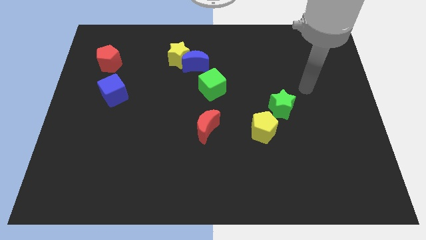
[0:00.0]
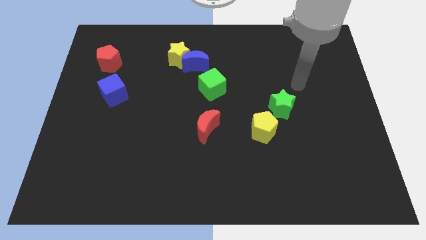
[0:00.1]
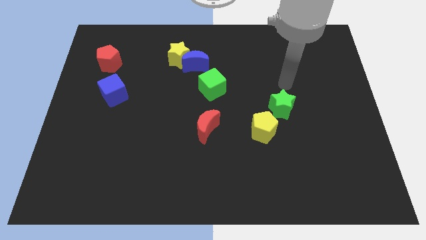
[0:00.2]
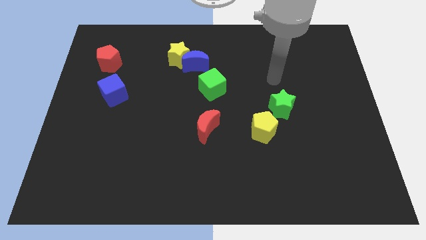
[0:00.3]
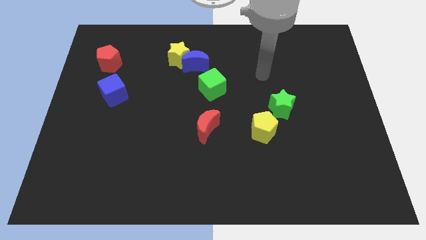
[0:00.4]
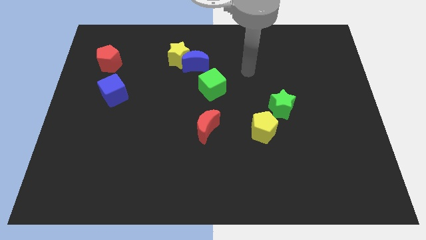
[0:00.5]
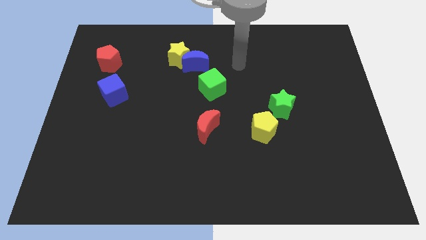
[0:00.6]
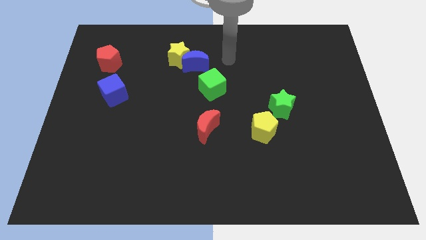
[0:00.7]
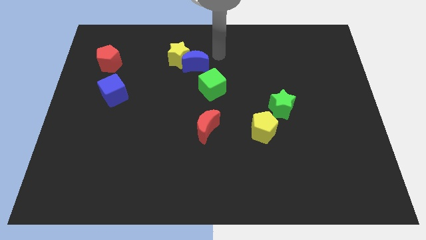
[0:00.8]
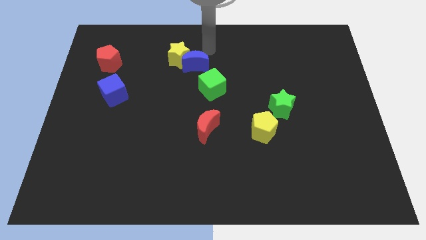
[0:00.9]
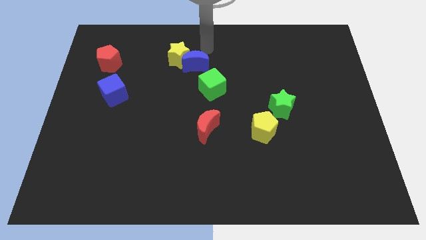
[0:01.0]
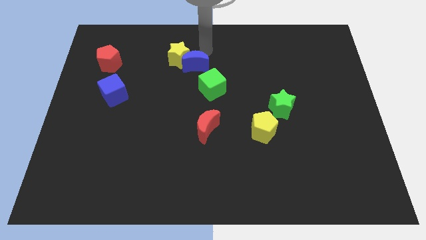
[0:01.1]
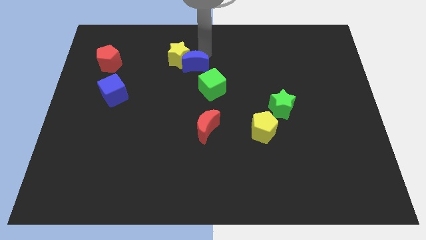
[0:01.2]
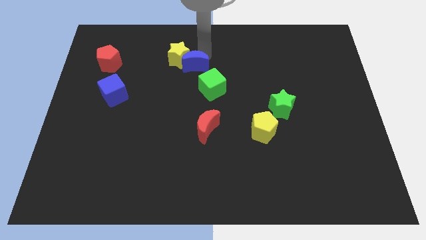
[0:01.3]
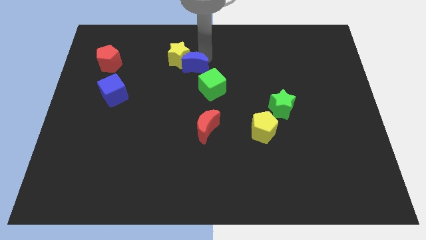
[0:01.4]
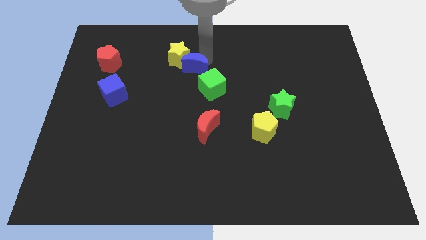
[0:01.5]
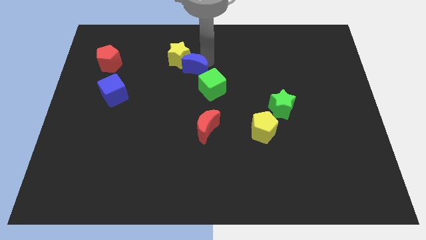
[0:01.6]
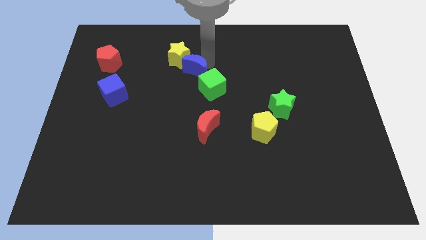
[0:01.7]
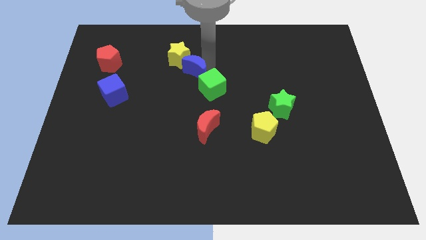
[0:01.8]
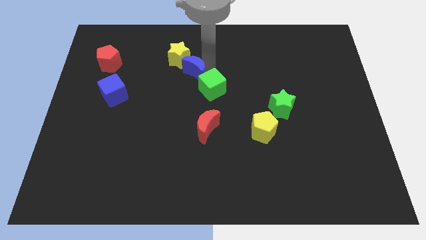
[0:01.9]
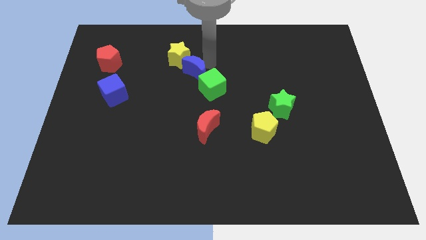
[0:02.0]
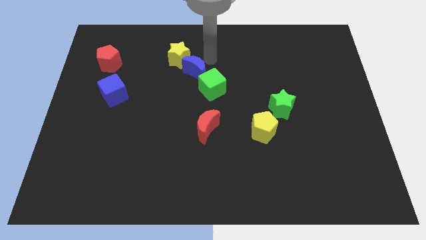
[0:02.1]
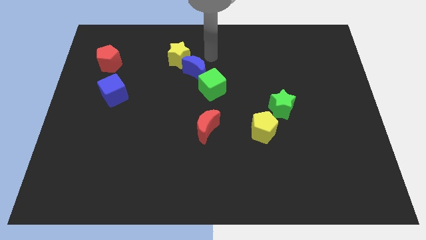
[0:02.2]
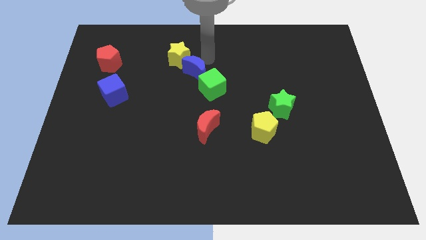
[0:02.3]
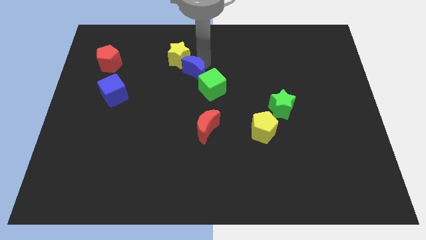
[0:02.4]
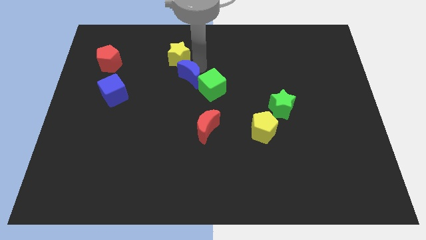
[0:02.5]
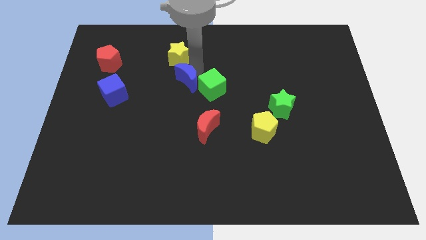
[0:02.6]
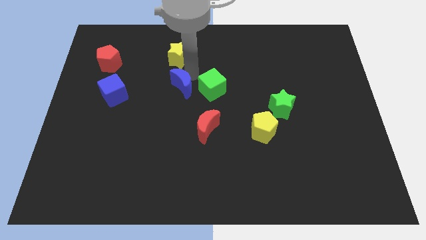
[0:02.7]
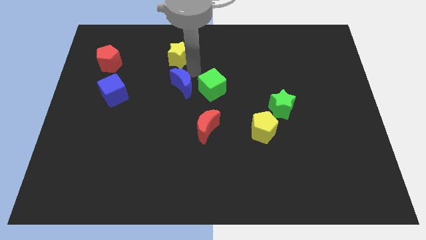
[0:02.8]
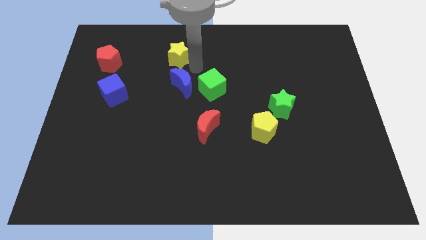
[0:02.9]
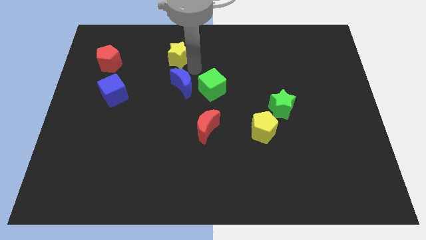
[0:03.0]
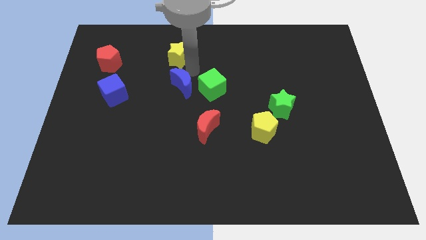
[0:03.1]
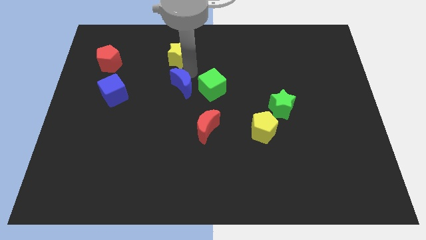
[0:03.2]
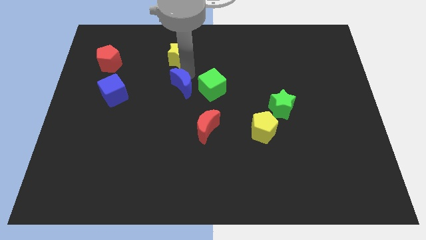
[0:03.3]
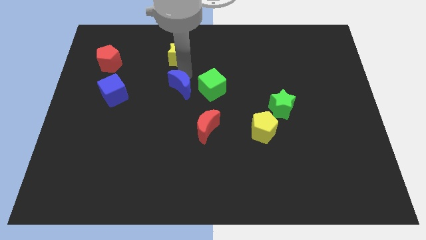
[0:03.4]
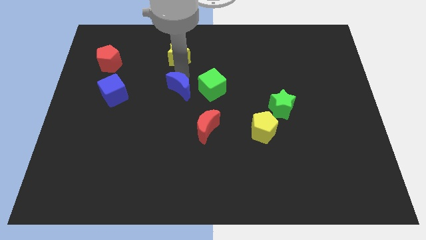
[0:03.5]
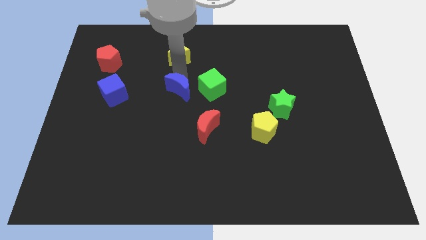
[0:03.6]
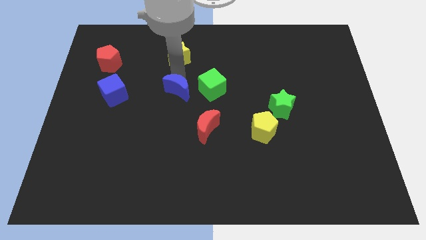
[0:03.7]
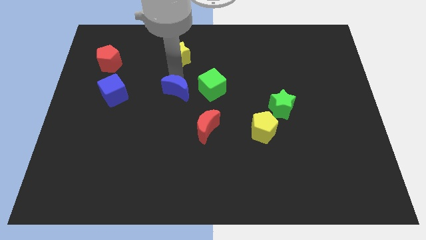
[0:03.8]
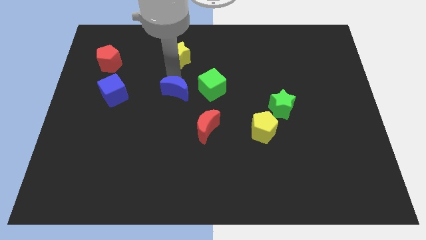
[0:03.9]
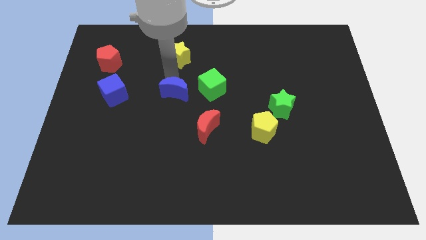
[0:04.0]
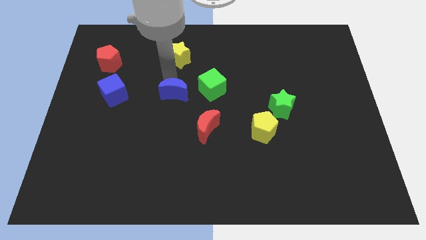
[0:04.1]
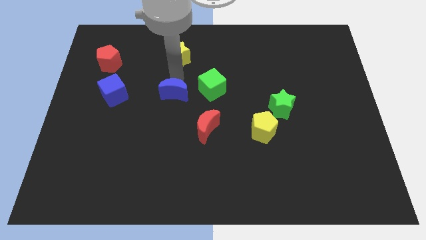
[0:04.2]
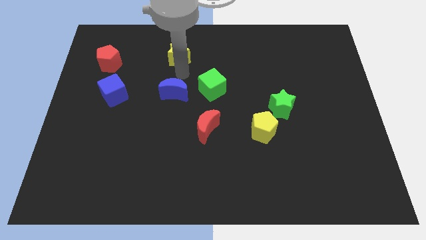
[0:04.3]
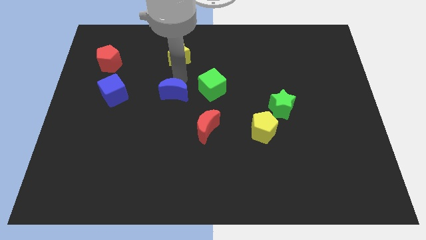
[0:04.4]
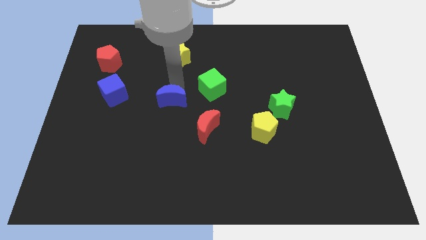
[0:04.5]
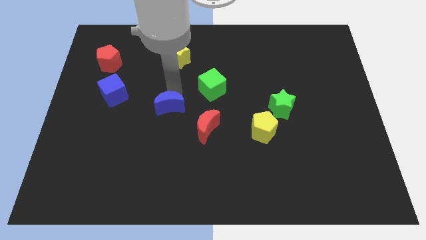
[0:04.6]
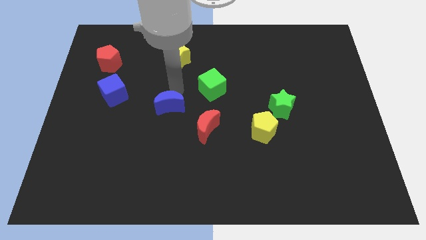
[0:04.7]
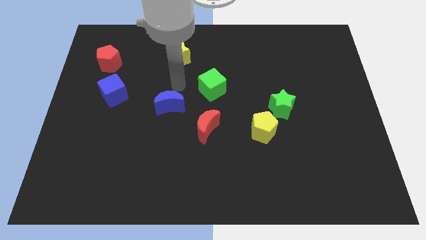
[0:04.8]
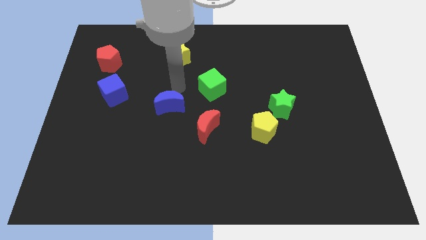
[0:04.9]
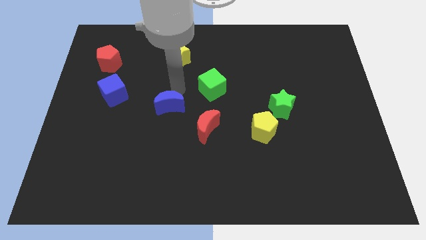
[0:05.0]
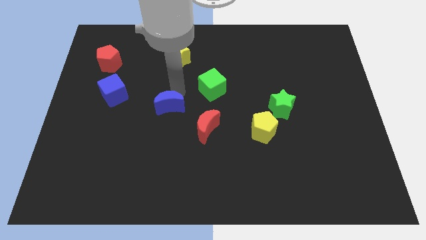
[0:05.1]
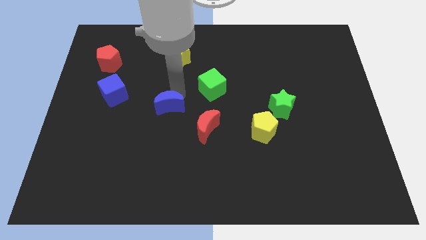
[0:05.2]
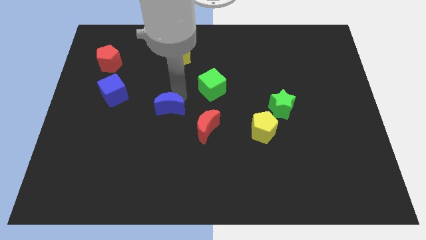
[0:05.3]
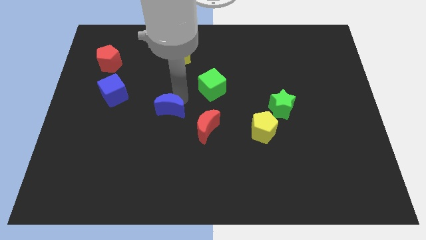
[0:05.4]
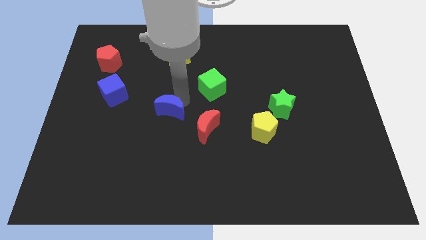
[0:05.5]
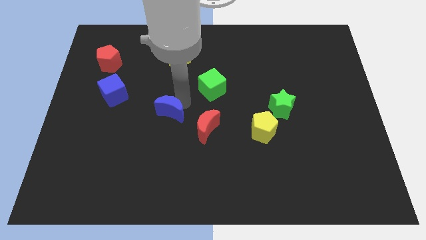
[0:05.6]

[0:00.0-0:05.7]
slide the blue moon left of the red moon

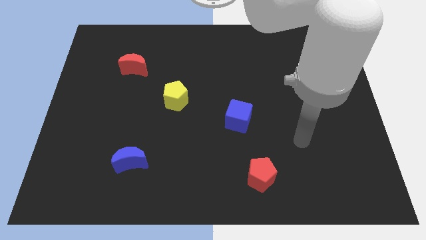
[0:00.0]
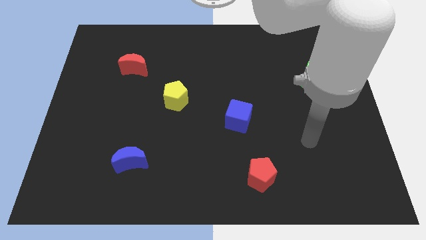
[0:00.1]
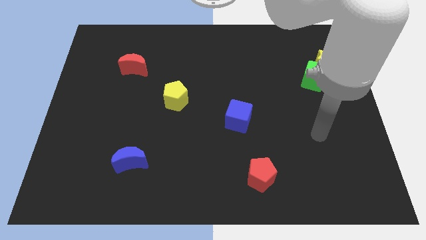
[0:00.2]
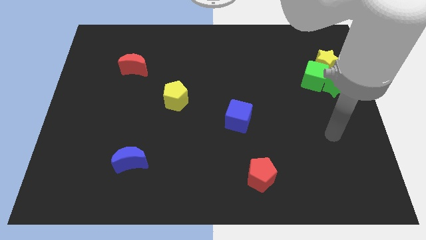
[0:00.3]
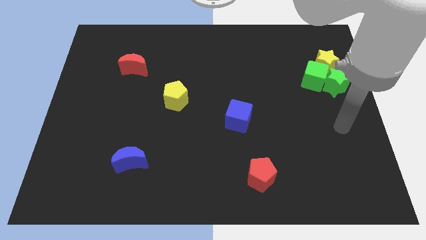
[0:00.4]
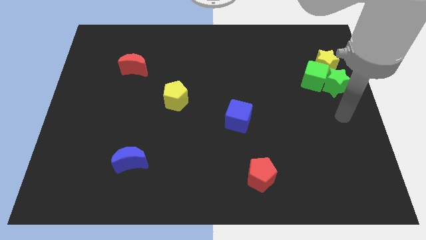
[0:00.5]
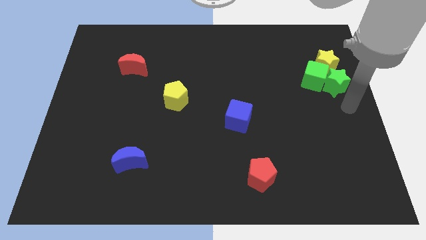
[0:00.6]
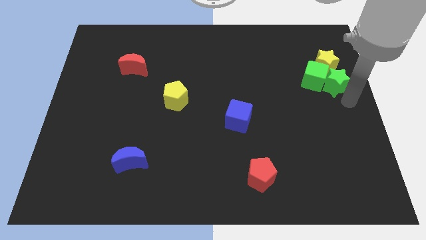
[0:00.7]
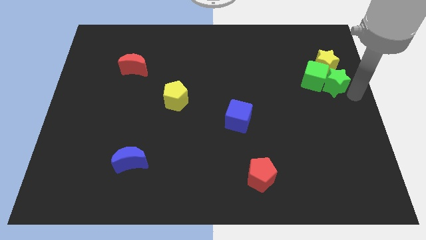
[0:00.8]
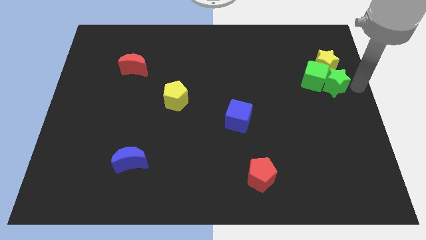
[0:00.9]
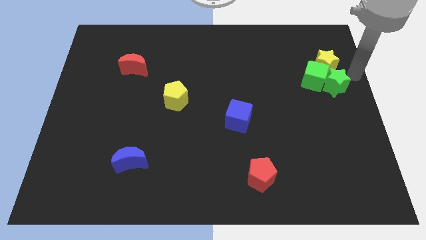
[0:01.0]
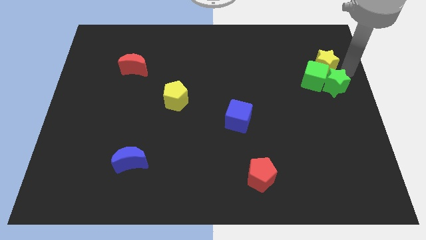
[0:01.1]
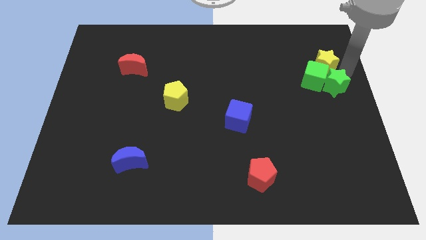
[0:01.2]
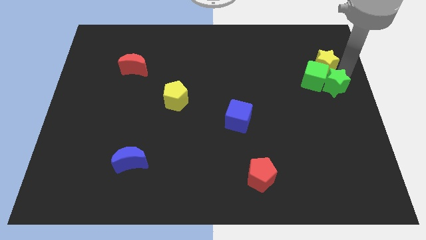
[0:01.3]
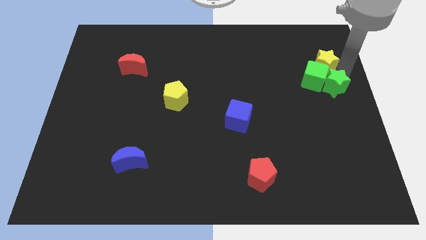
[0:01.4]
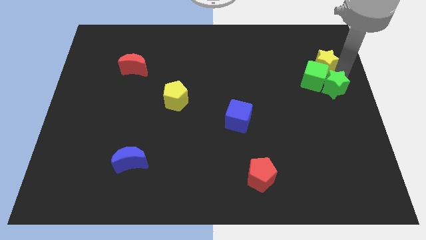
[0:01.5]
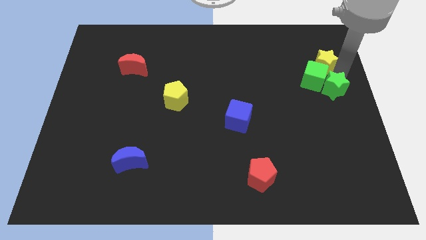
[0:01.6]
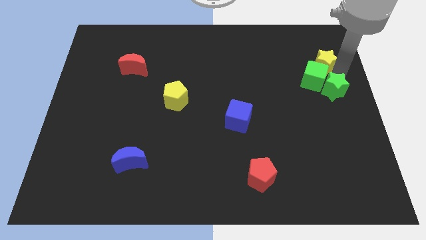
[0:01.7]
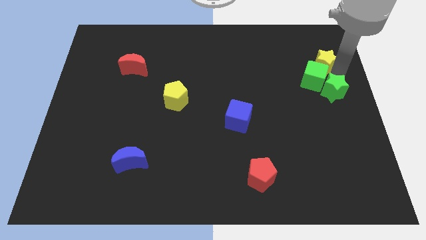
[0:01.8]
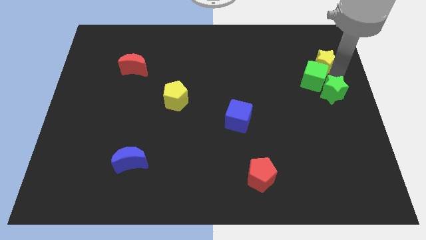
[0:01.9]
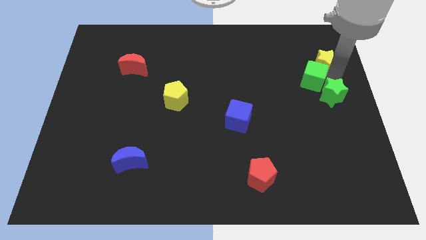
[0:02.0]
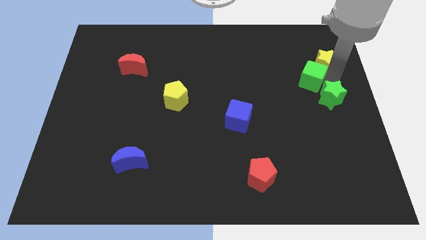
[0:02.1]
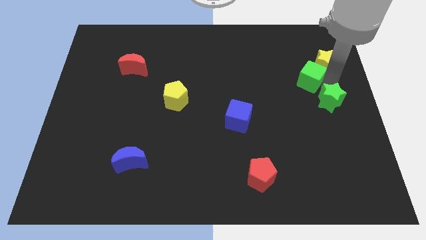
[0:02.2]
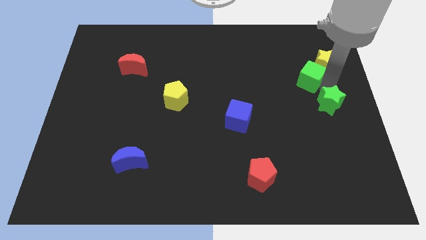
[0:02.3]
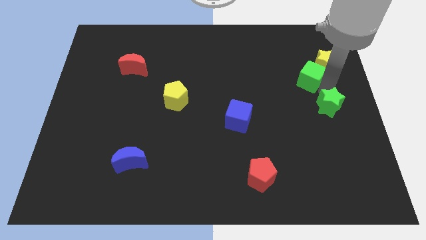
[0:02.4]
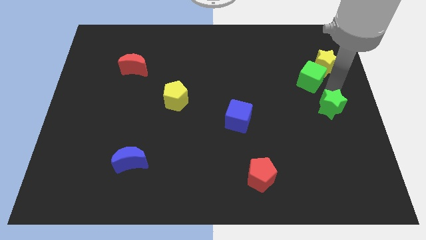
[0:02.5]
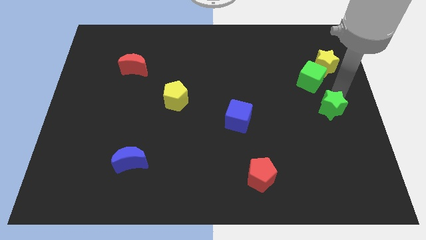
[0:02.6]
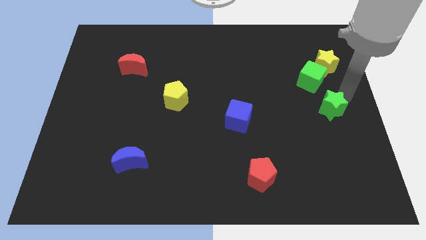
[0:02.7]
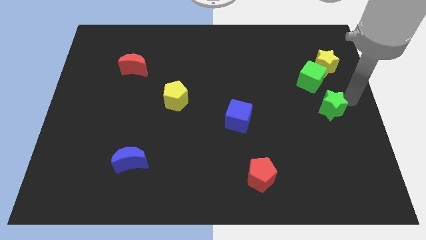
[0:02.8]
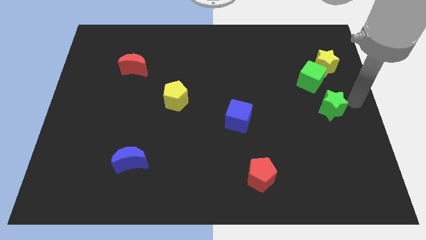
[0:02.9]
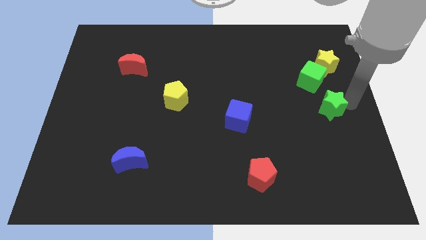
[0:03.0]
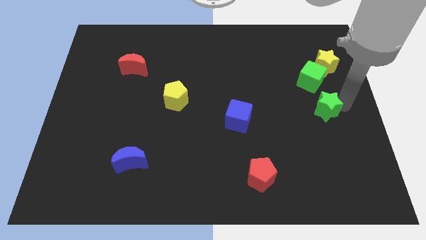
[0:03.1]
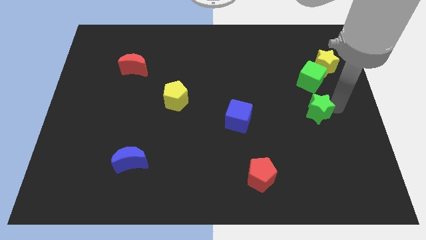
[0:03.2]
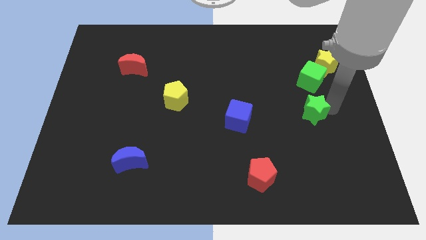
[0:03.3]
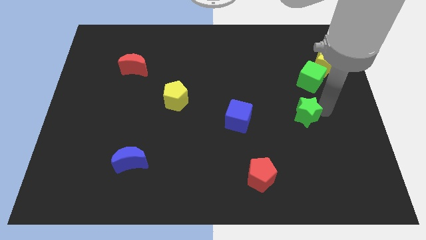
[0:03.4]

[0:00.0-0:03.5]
put the green star to the right of the blue cube
